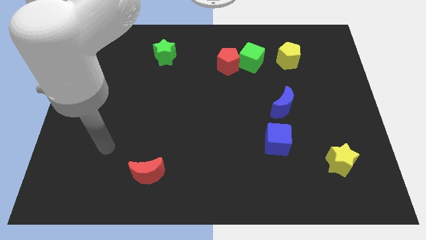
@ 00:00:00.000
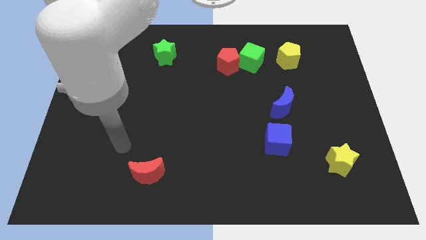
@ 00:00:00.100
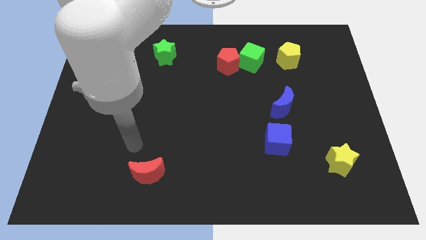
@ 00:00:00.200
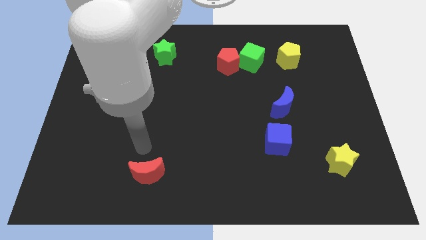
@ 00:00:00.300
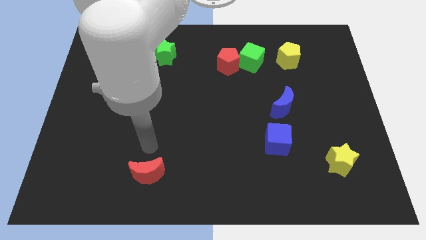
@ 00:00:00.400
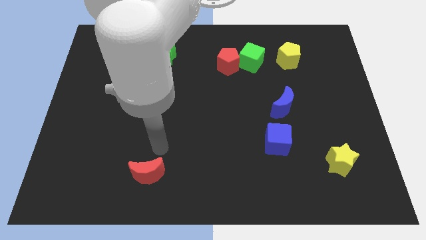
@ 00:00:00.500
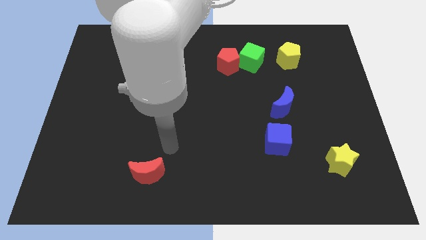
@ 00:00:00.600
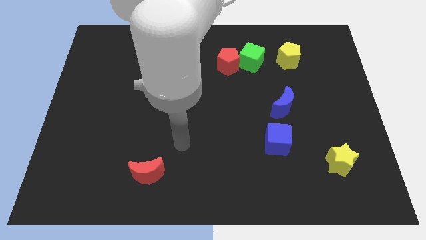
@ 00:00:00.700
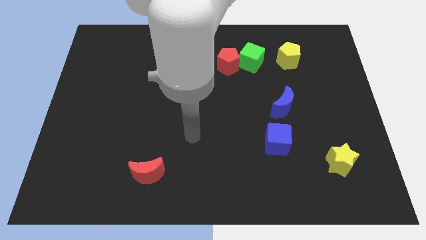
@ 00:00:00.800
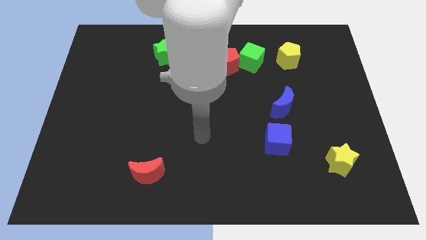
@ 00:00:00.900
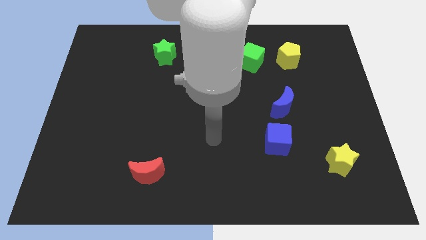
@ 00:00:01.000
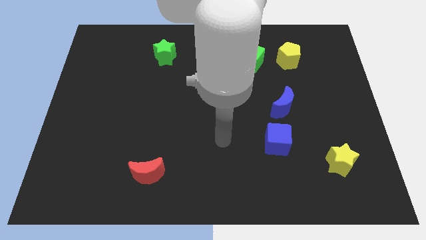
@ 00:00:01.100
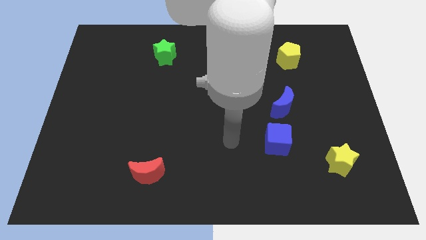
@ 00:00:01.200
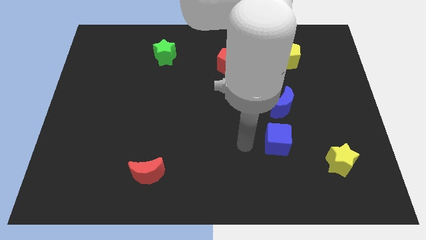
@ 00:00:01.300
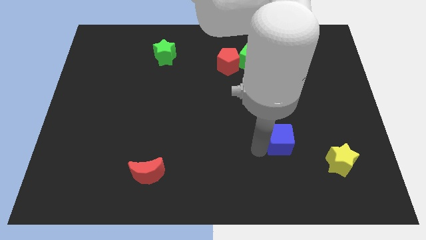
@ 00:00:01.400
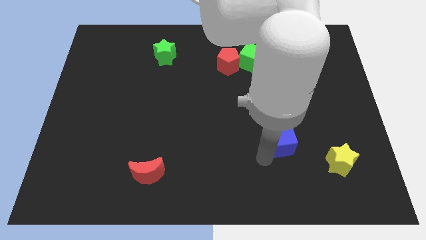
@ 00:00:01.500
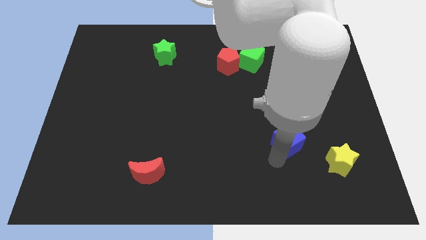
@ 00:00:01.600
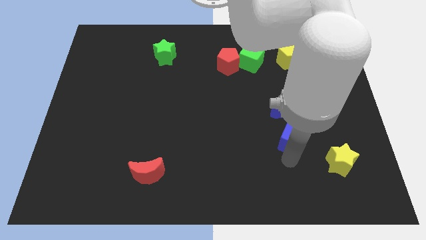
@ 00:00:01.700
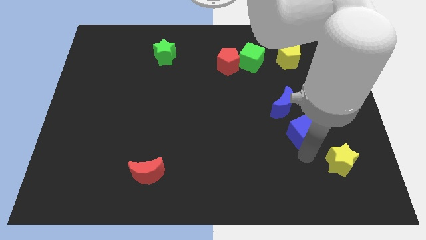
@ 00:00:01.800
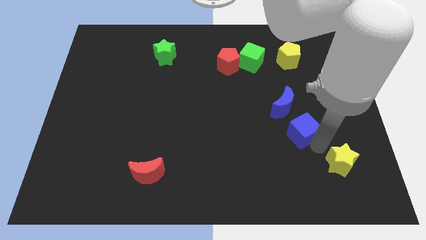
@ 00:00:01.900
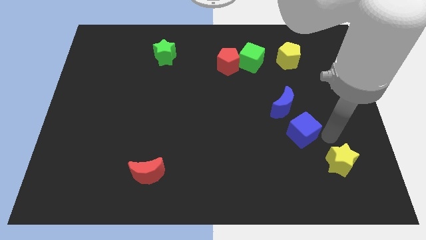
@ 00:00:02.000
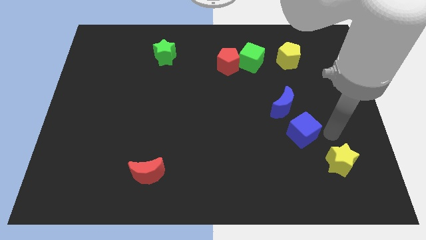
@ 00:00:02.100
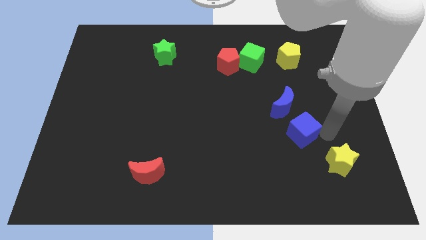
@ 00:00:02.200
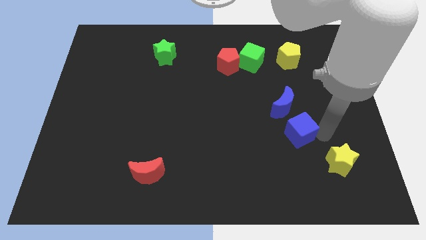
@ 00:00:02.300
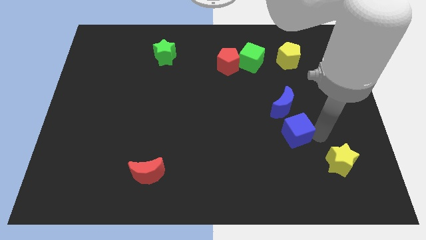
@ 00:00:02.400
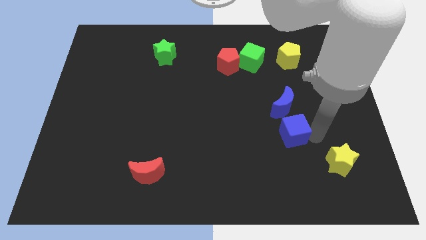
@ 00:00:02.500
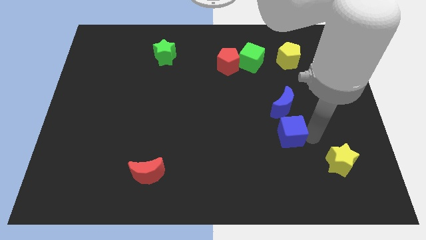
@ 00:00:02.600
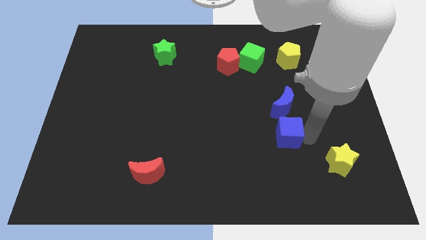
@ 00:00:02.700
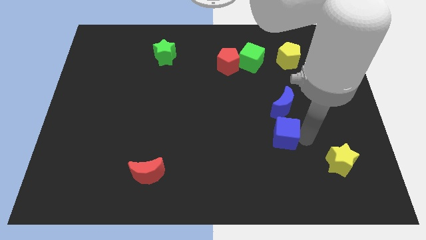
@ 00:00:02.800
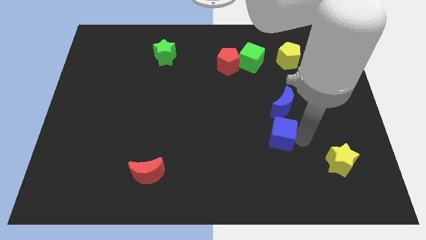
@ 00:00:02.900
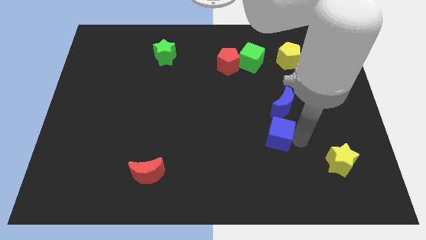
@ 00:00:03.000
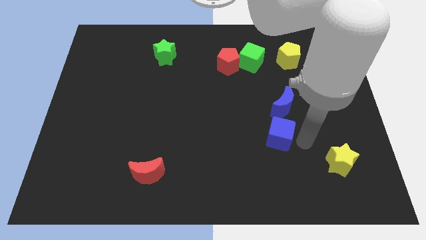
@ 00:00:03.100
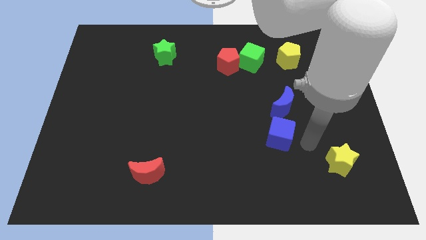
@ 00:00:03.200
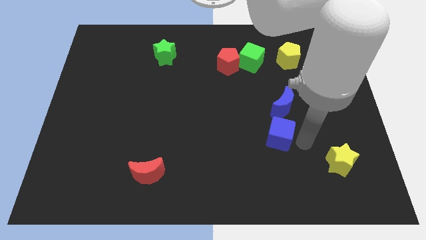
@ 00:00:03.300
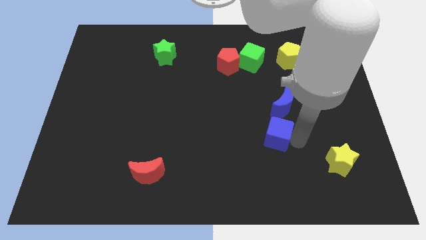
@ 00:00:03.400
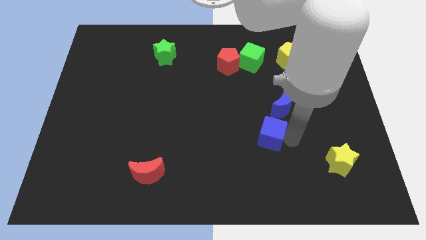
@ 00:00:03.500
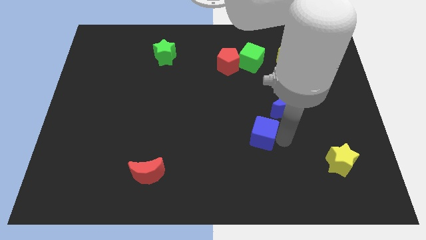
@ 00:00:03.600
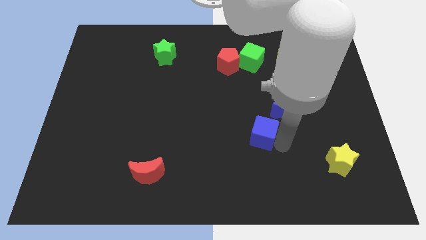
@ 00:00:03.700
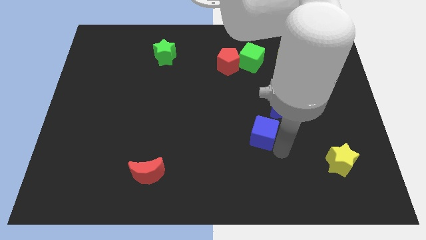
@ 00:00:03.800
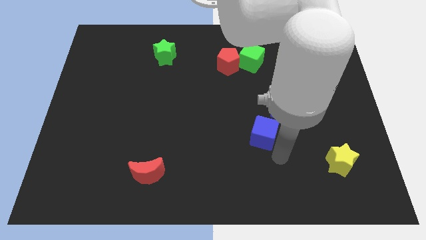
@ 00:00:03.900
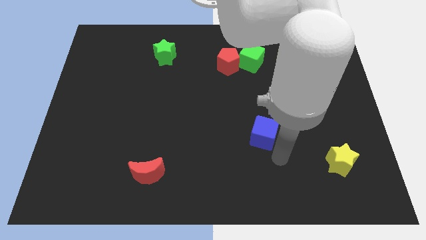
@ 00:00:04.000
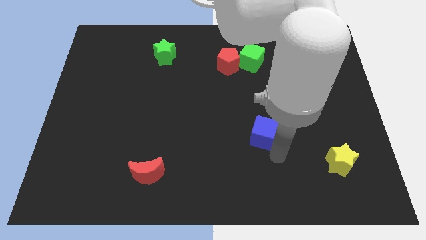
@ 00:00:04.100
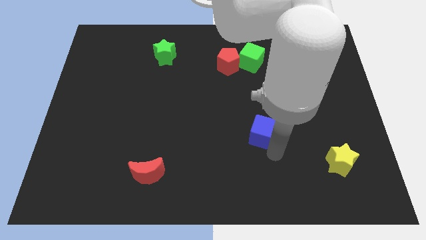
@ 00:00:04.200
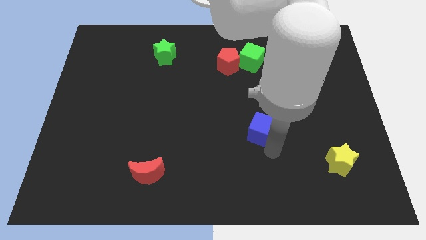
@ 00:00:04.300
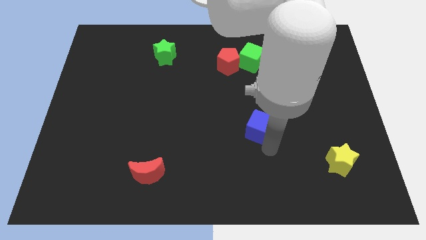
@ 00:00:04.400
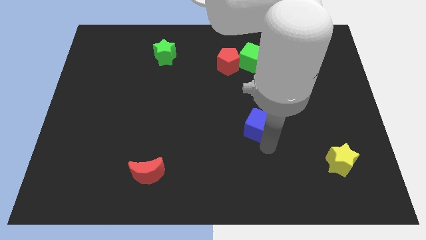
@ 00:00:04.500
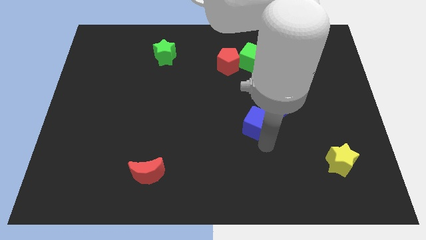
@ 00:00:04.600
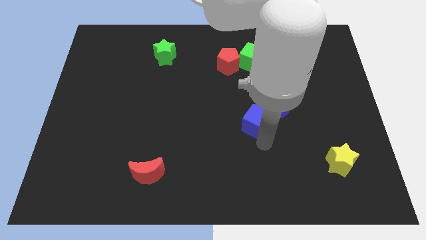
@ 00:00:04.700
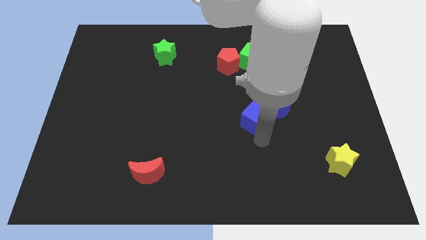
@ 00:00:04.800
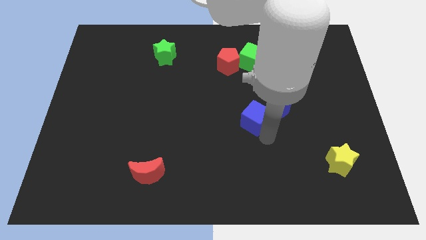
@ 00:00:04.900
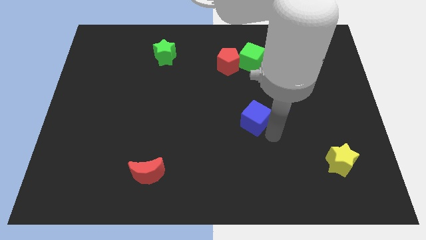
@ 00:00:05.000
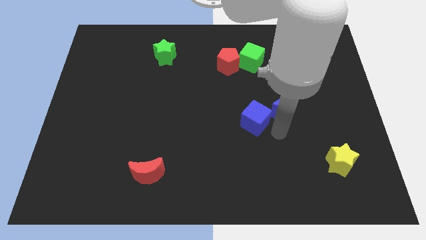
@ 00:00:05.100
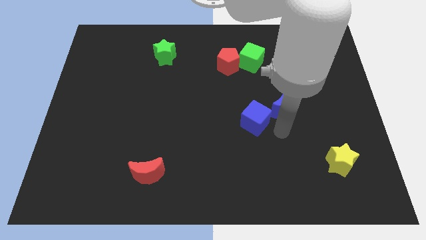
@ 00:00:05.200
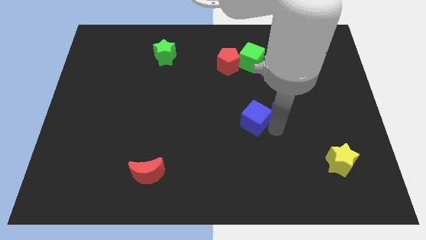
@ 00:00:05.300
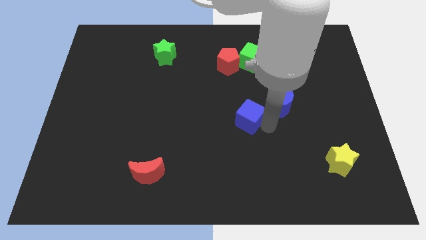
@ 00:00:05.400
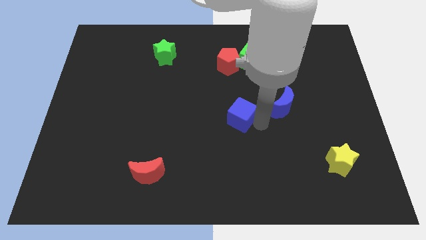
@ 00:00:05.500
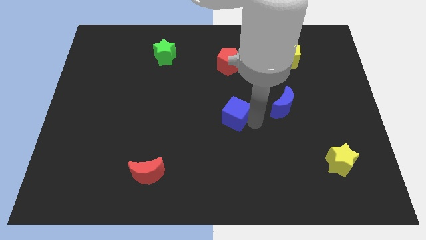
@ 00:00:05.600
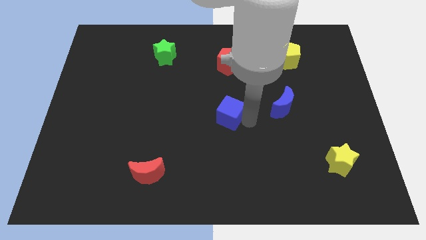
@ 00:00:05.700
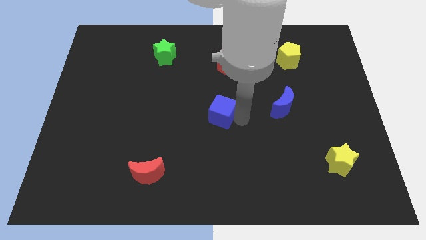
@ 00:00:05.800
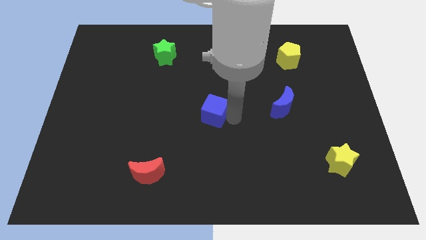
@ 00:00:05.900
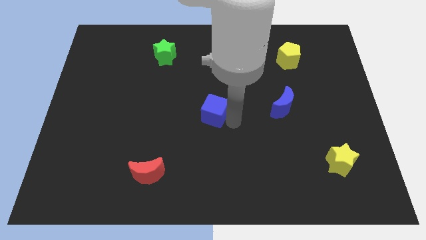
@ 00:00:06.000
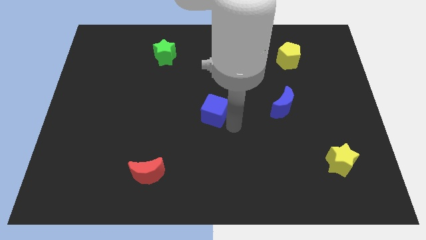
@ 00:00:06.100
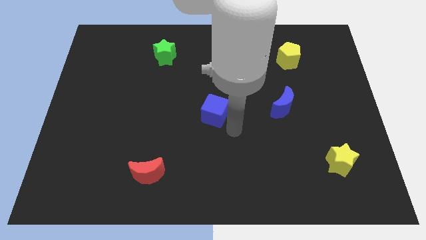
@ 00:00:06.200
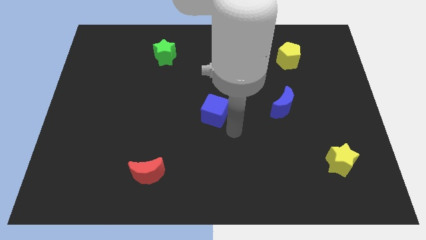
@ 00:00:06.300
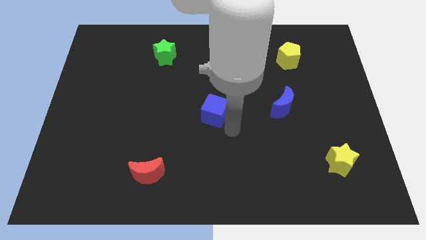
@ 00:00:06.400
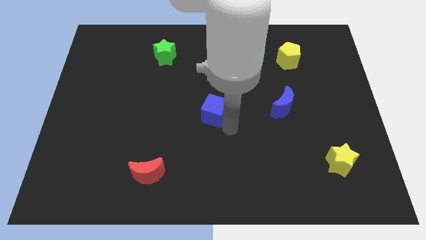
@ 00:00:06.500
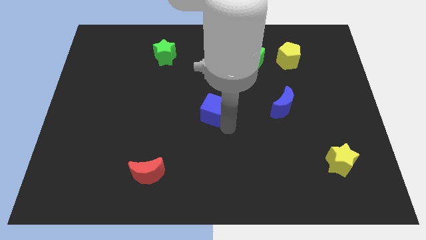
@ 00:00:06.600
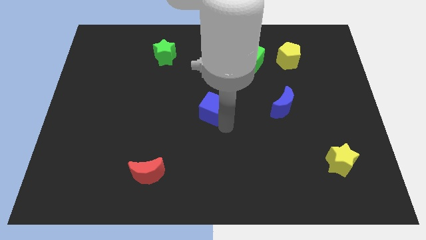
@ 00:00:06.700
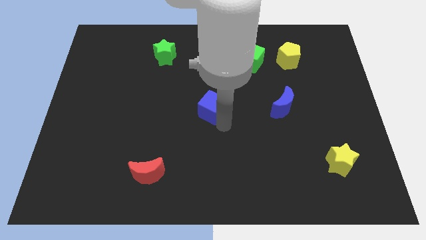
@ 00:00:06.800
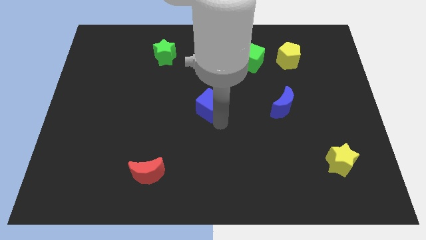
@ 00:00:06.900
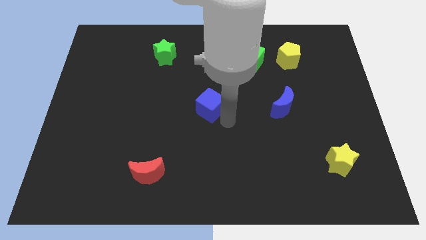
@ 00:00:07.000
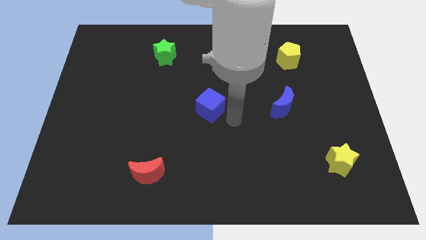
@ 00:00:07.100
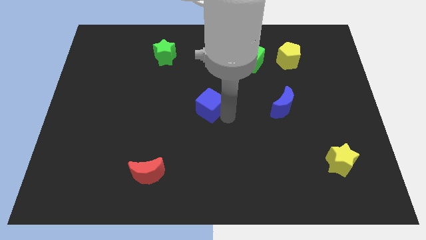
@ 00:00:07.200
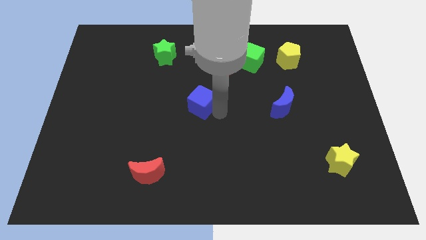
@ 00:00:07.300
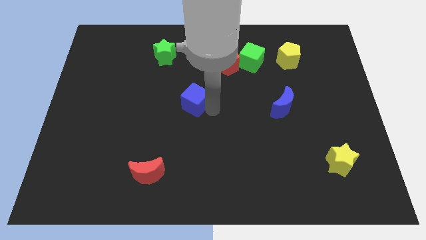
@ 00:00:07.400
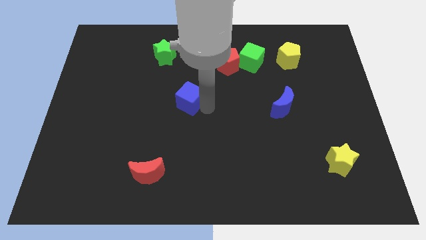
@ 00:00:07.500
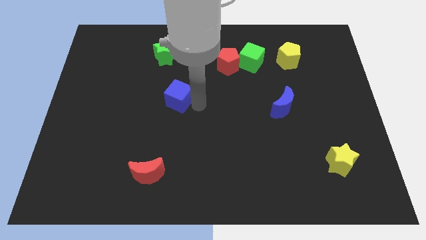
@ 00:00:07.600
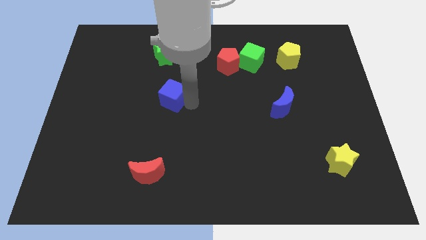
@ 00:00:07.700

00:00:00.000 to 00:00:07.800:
push the blue cube below the green star
